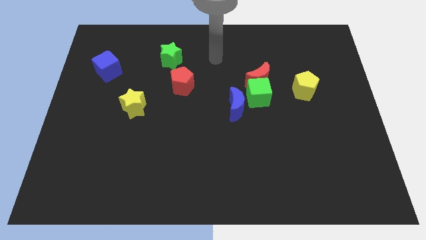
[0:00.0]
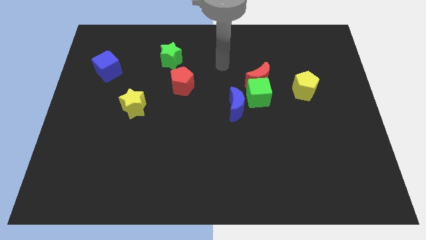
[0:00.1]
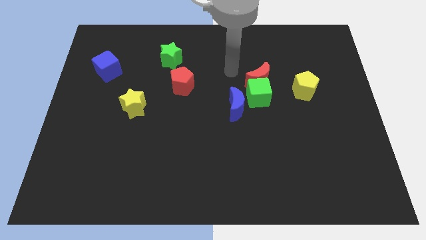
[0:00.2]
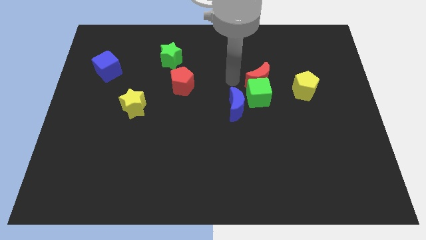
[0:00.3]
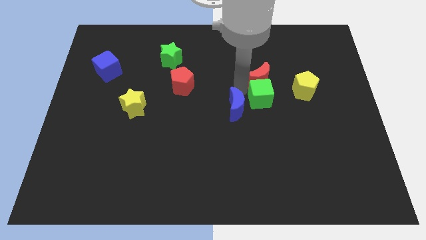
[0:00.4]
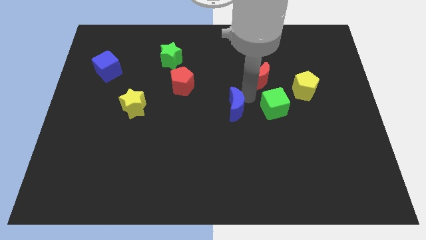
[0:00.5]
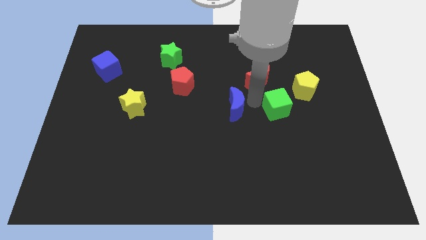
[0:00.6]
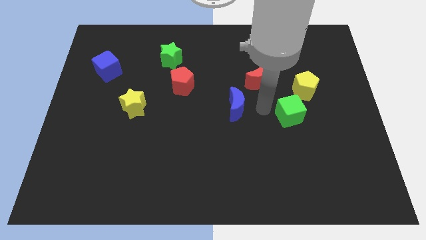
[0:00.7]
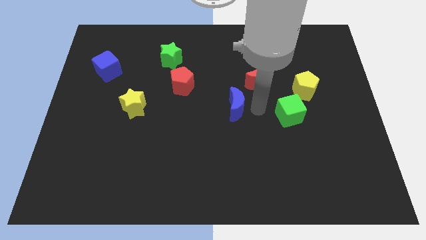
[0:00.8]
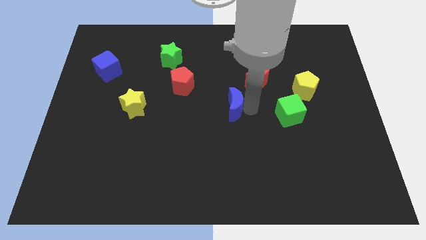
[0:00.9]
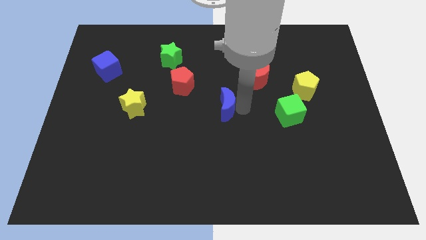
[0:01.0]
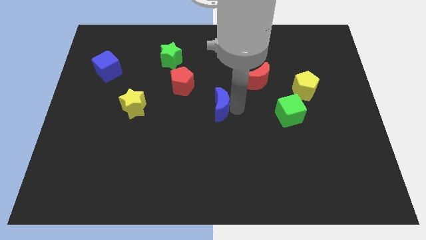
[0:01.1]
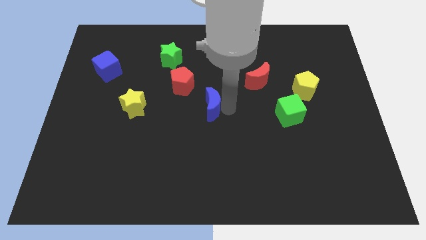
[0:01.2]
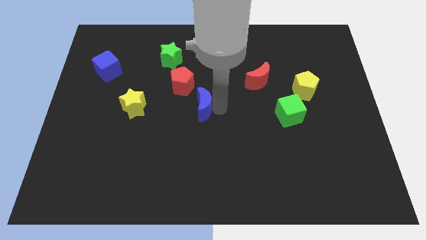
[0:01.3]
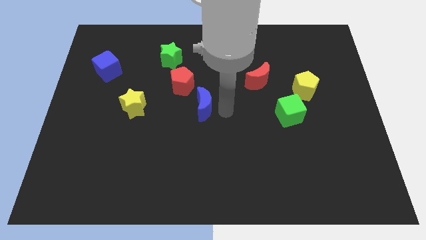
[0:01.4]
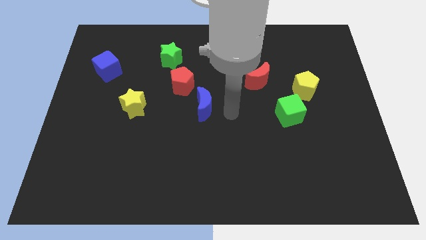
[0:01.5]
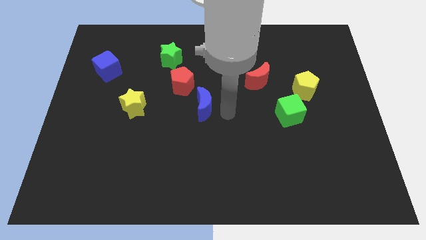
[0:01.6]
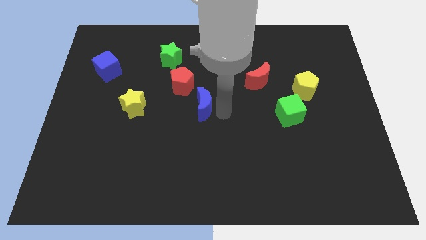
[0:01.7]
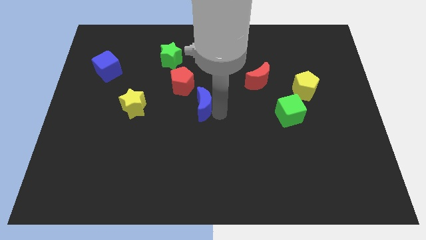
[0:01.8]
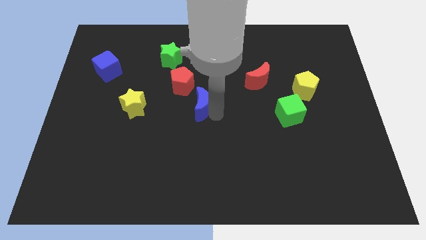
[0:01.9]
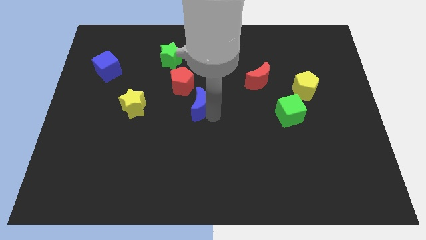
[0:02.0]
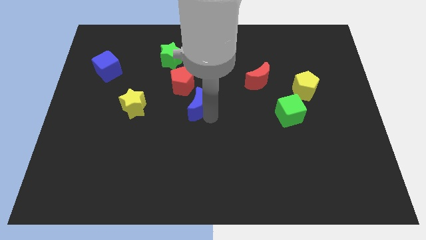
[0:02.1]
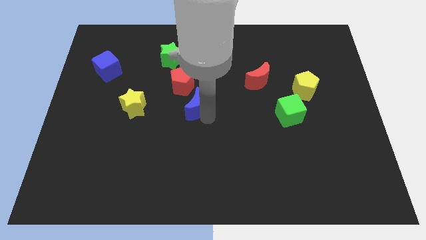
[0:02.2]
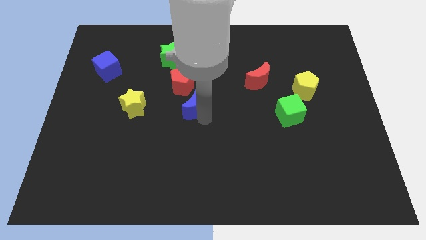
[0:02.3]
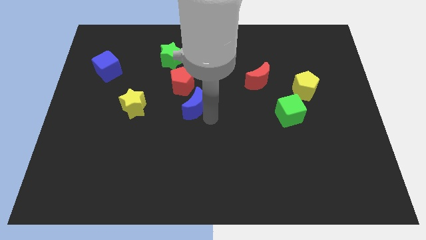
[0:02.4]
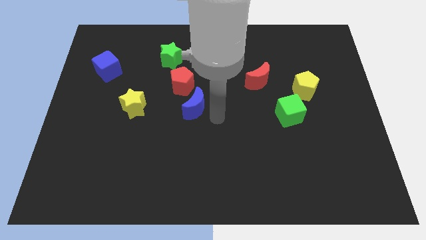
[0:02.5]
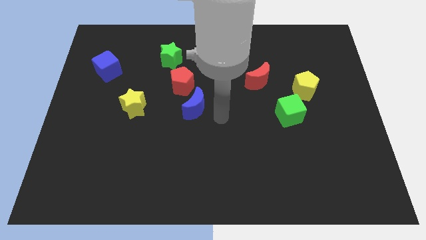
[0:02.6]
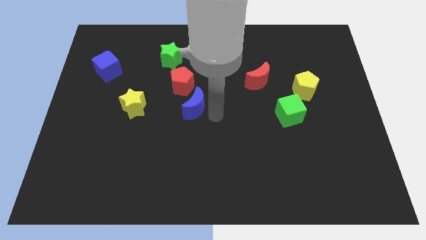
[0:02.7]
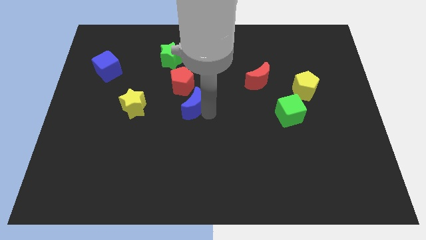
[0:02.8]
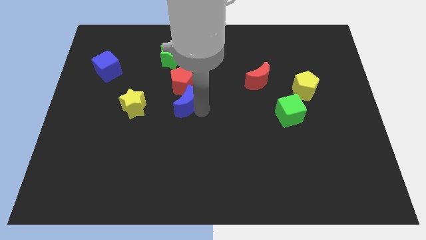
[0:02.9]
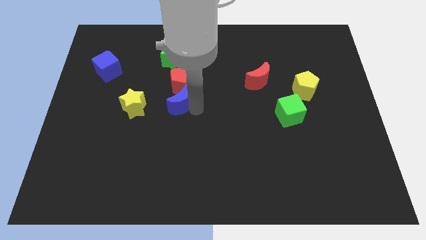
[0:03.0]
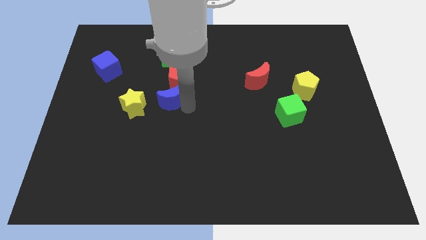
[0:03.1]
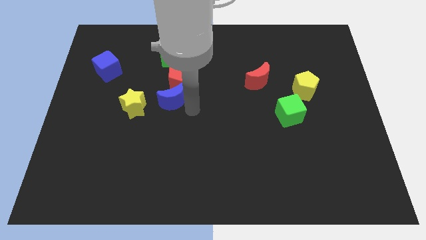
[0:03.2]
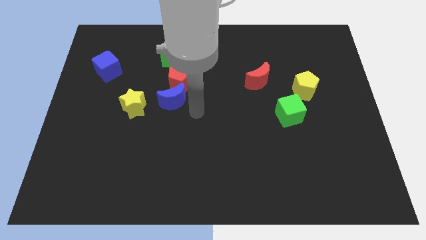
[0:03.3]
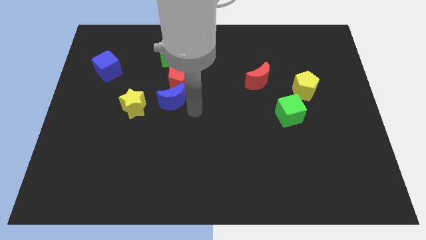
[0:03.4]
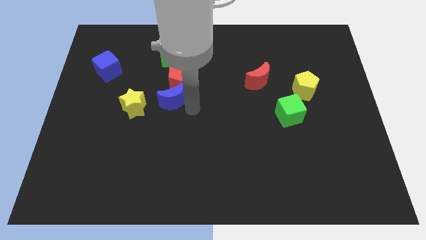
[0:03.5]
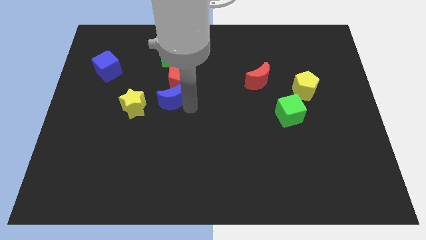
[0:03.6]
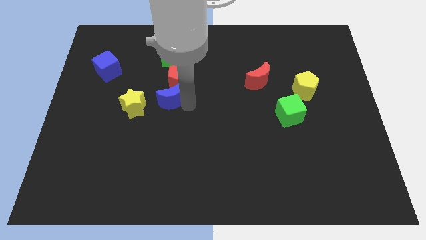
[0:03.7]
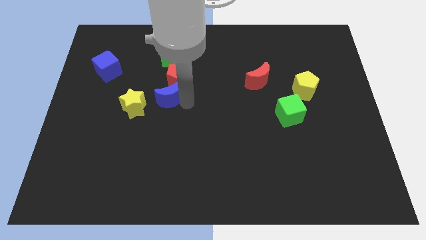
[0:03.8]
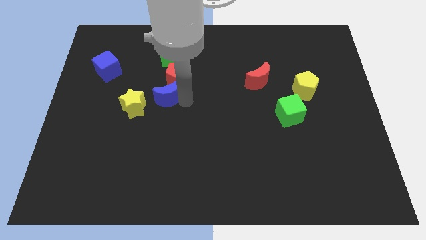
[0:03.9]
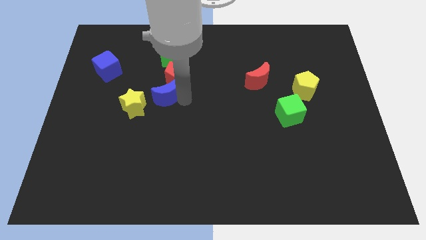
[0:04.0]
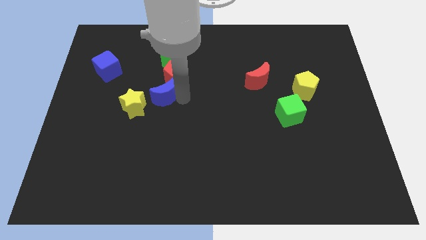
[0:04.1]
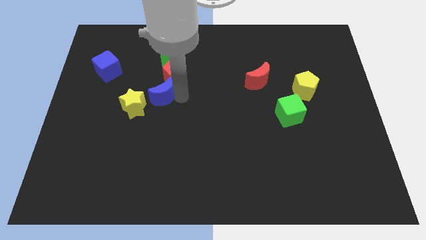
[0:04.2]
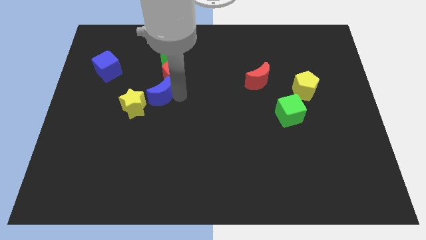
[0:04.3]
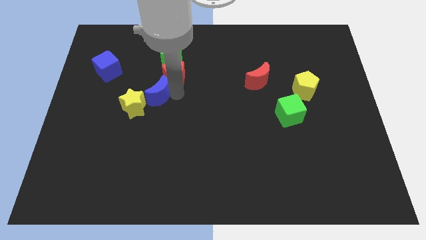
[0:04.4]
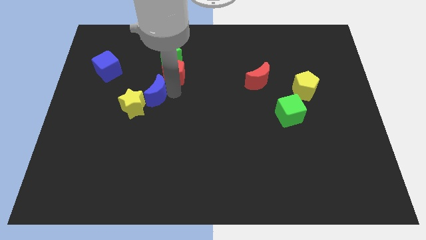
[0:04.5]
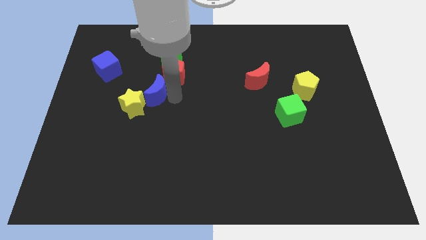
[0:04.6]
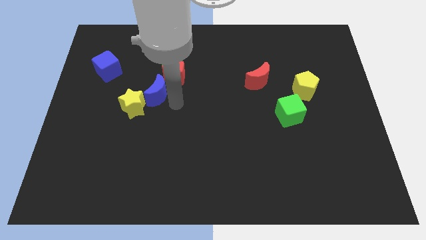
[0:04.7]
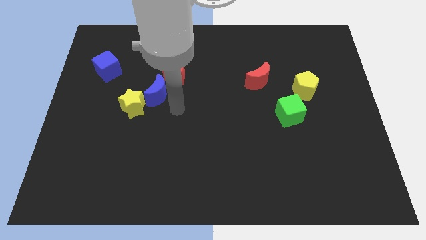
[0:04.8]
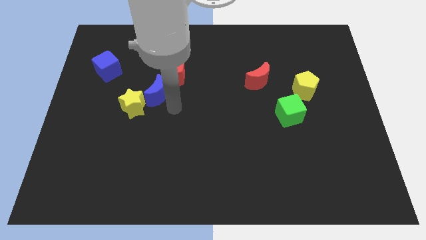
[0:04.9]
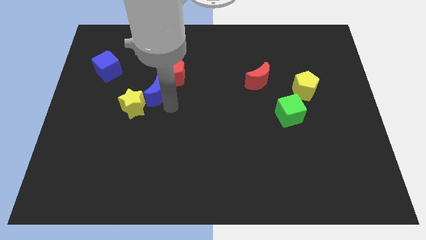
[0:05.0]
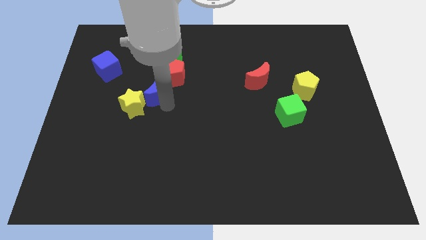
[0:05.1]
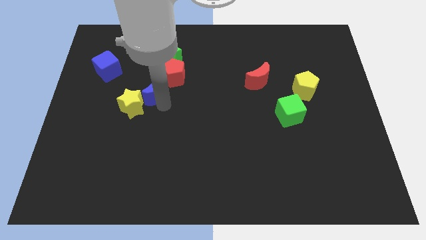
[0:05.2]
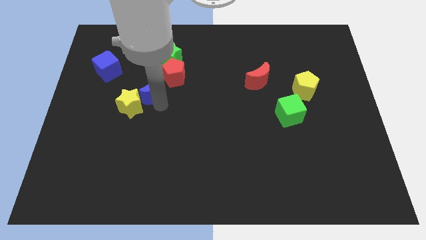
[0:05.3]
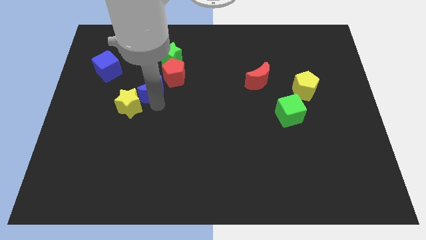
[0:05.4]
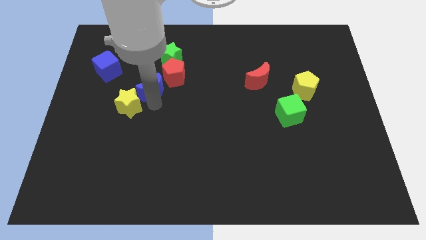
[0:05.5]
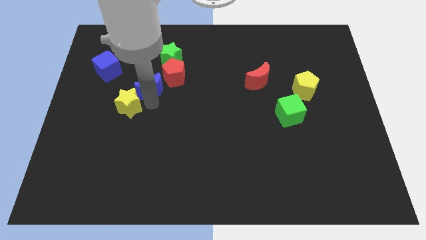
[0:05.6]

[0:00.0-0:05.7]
slide the blue moon to the left of the red pentagon

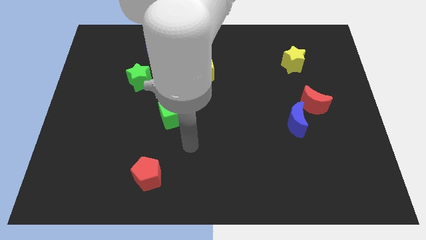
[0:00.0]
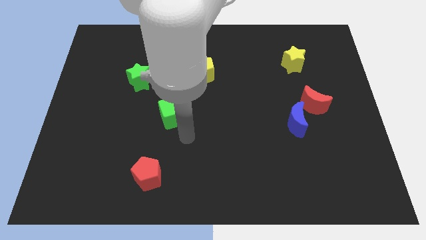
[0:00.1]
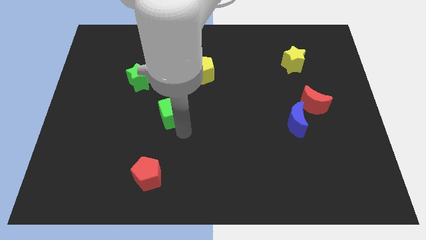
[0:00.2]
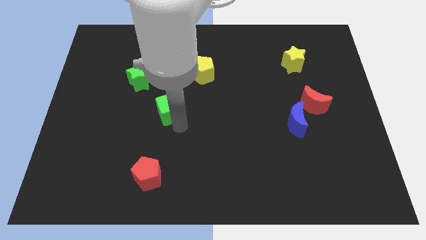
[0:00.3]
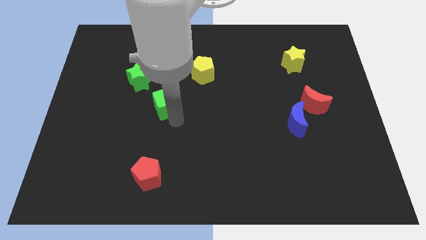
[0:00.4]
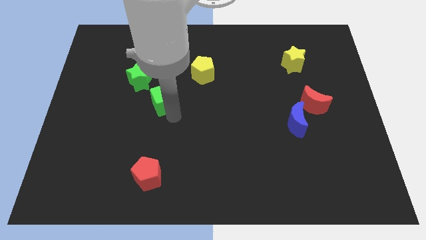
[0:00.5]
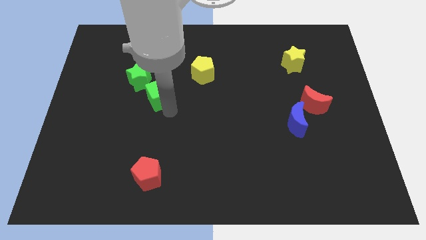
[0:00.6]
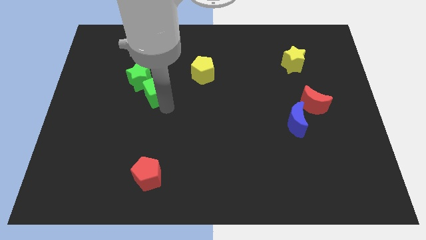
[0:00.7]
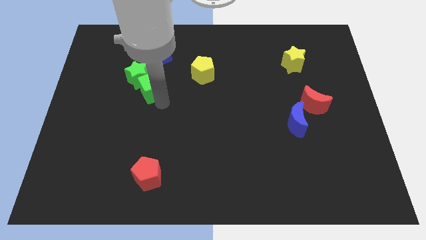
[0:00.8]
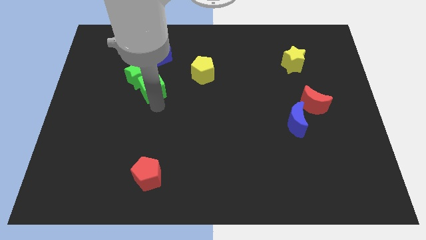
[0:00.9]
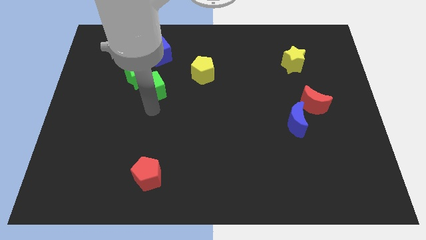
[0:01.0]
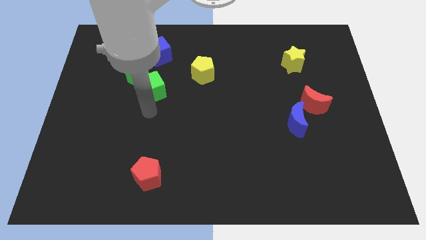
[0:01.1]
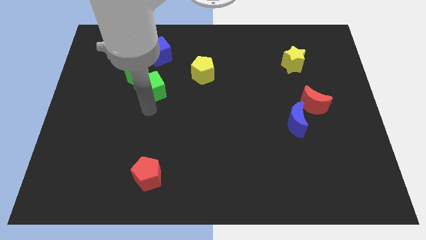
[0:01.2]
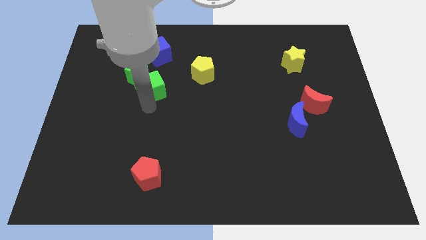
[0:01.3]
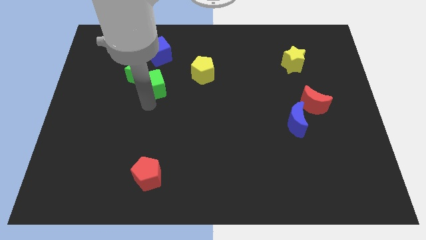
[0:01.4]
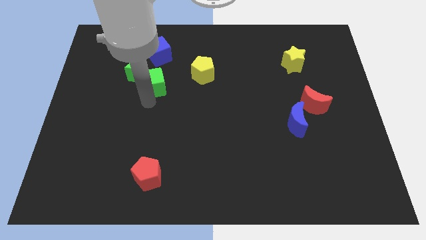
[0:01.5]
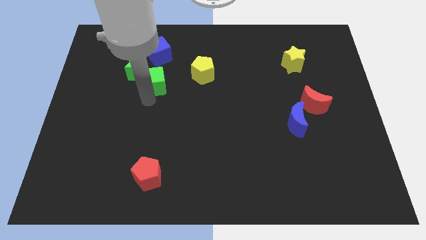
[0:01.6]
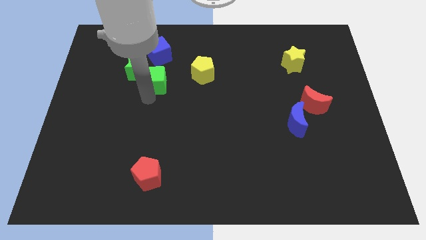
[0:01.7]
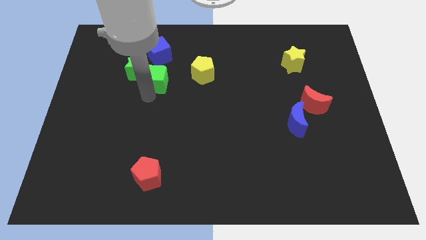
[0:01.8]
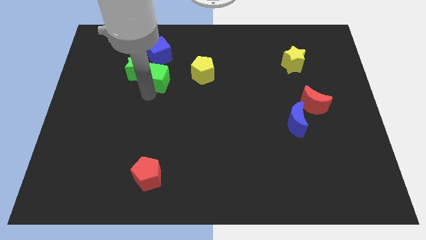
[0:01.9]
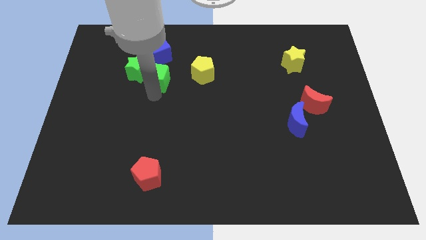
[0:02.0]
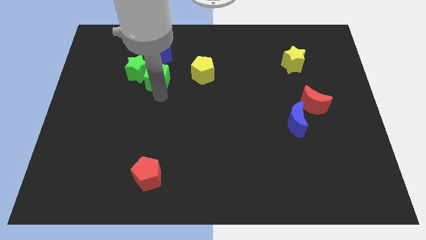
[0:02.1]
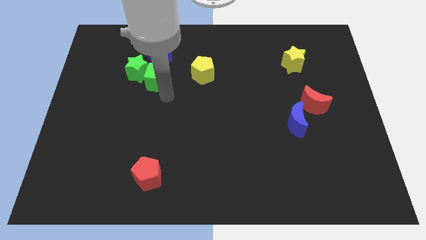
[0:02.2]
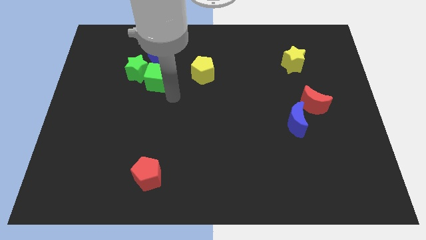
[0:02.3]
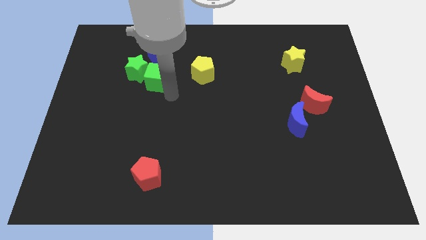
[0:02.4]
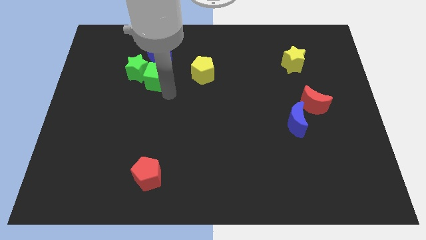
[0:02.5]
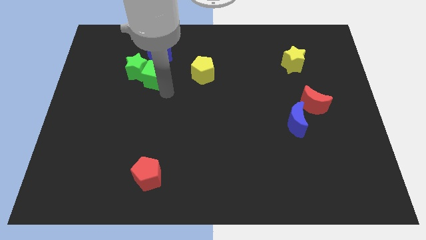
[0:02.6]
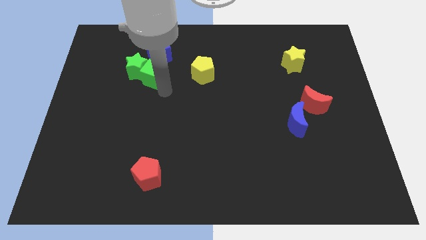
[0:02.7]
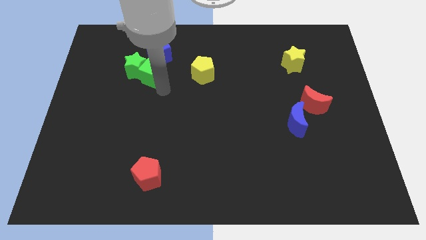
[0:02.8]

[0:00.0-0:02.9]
slide the green cube diagonally down and to the left of the blue cube
